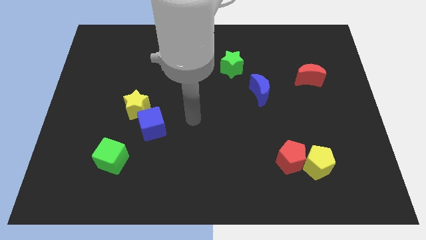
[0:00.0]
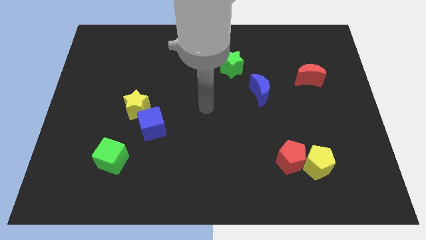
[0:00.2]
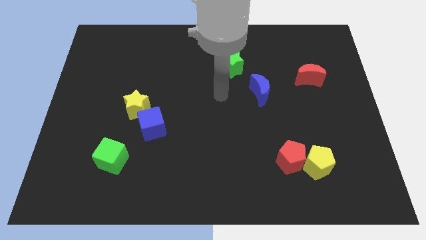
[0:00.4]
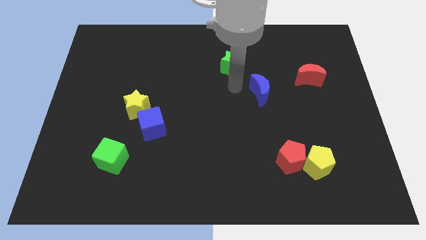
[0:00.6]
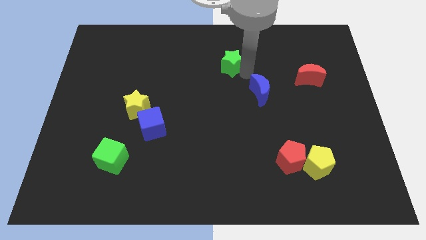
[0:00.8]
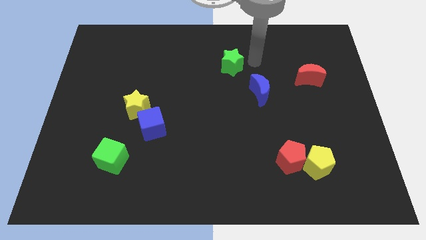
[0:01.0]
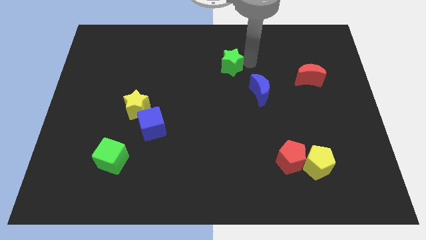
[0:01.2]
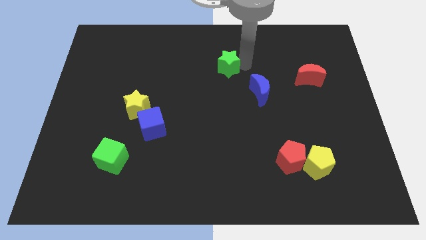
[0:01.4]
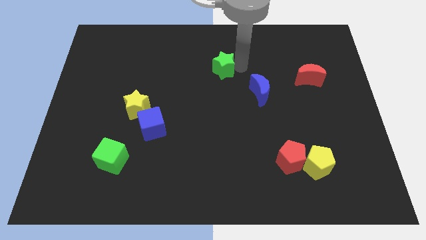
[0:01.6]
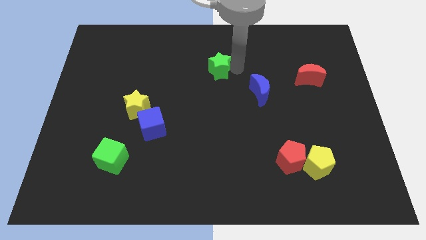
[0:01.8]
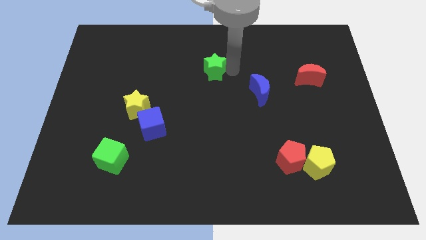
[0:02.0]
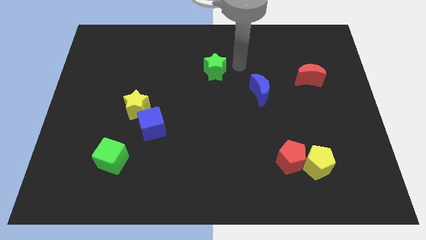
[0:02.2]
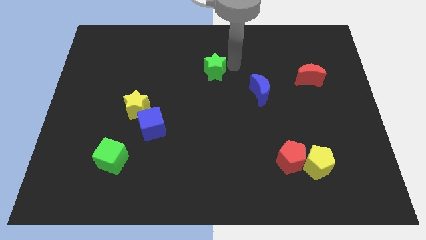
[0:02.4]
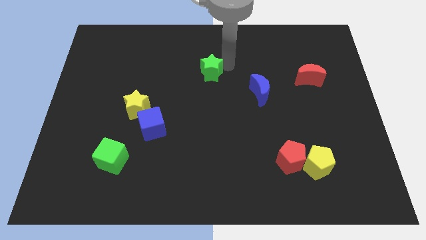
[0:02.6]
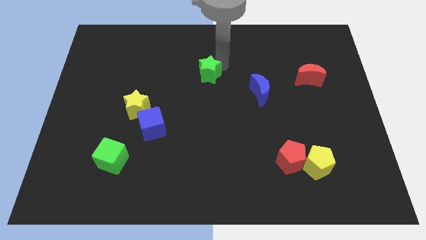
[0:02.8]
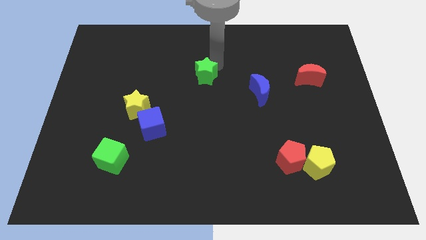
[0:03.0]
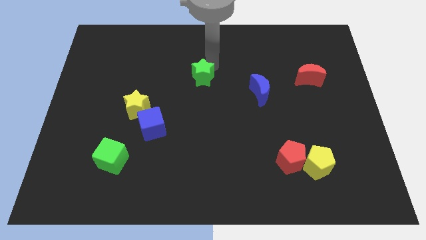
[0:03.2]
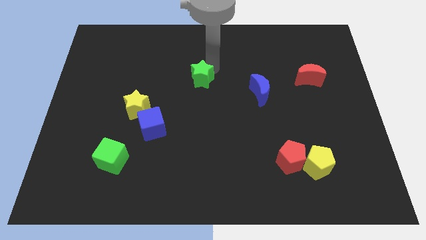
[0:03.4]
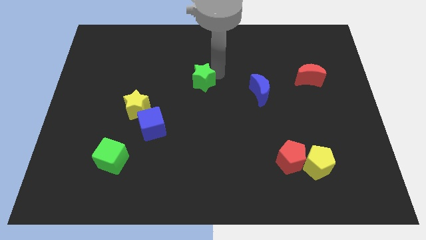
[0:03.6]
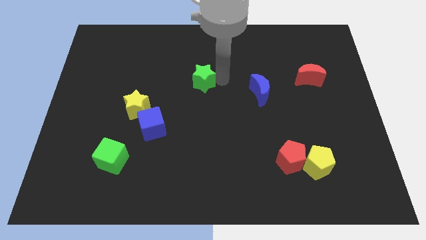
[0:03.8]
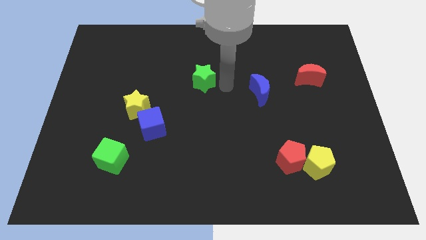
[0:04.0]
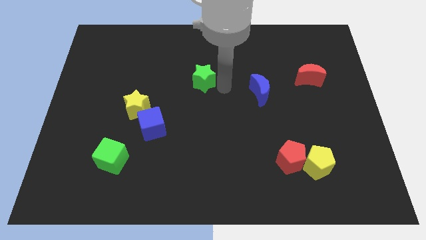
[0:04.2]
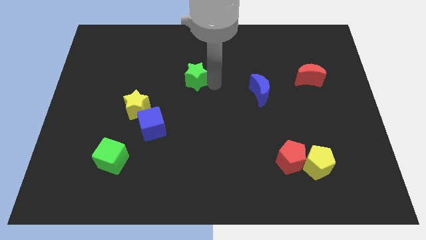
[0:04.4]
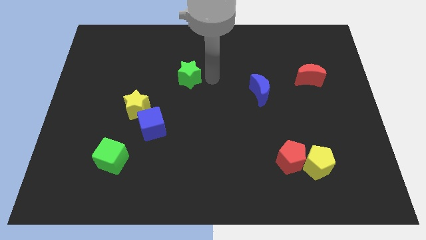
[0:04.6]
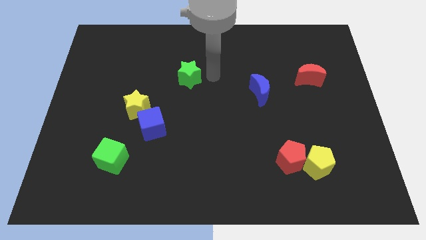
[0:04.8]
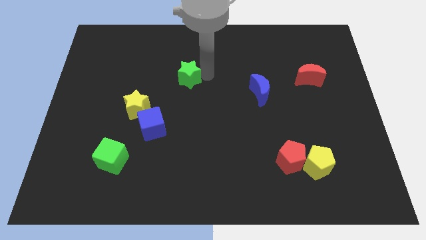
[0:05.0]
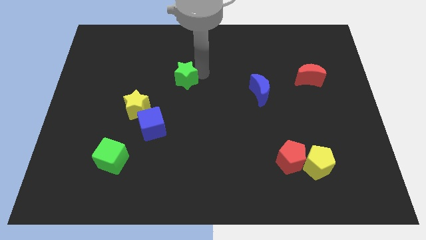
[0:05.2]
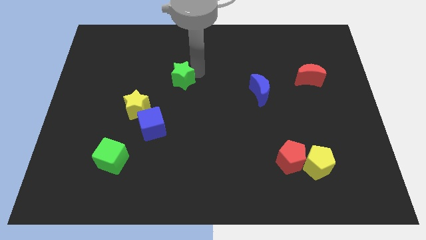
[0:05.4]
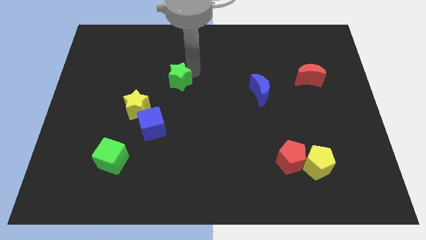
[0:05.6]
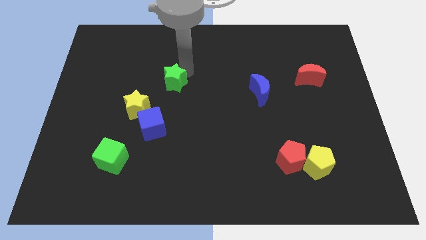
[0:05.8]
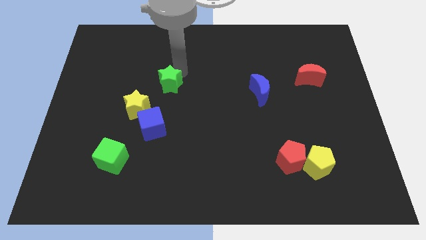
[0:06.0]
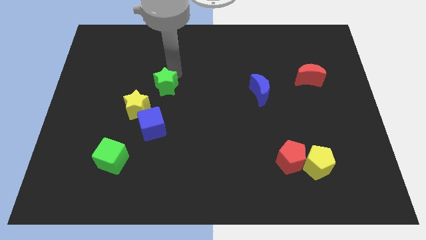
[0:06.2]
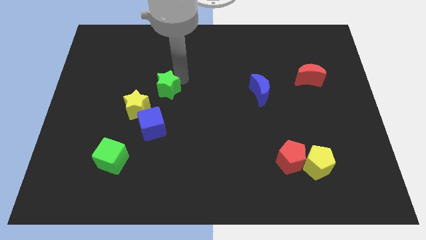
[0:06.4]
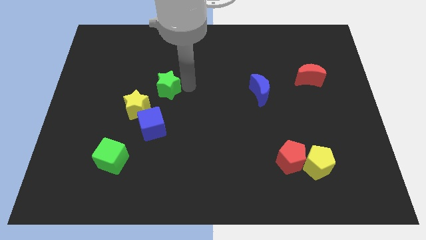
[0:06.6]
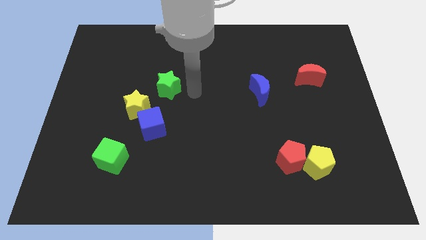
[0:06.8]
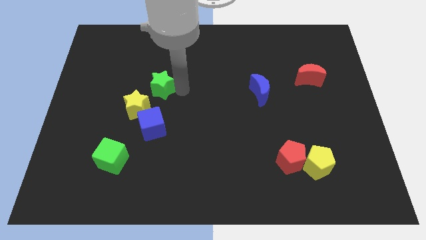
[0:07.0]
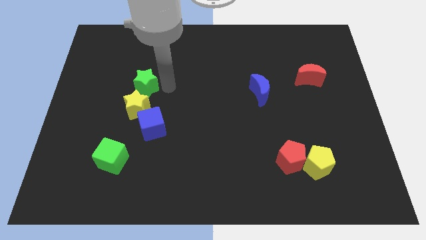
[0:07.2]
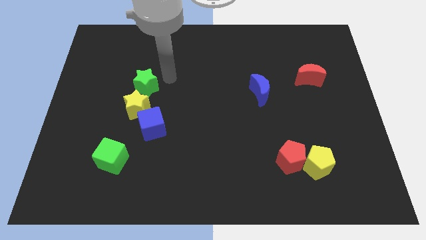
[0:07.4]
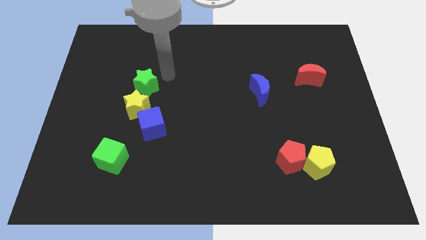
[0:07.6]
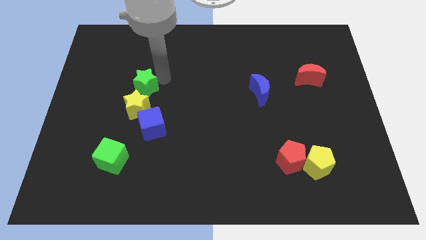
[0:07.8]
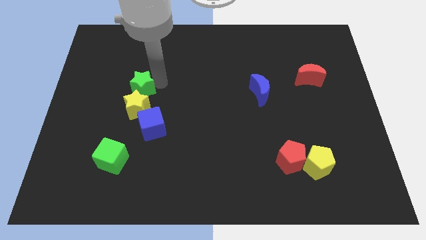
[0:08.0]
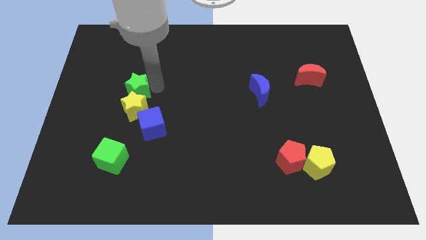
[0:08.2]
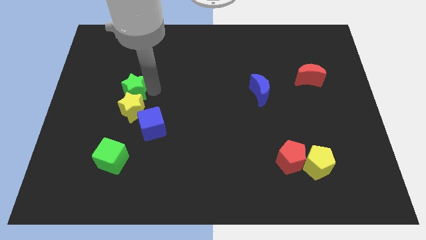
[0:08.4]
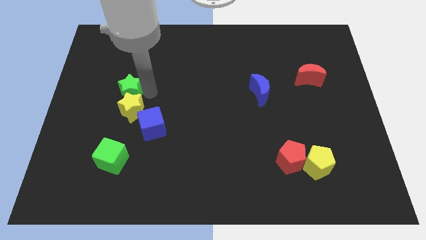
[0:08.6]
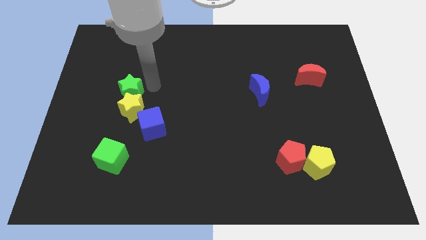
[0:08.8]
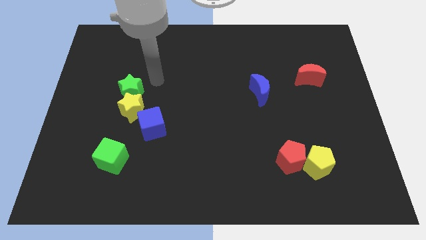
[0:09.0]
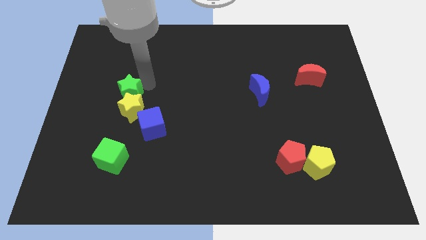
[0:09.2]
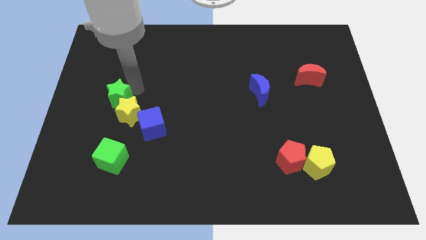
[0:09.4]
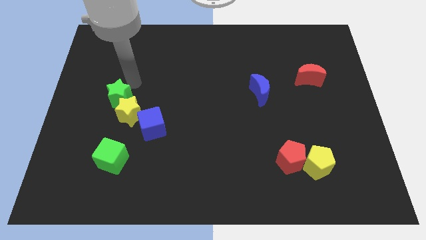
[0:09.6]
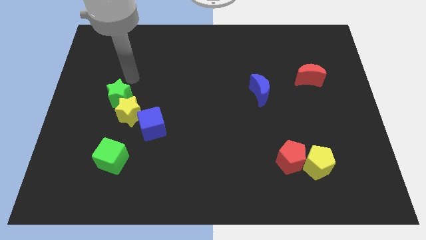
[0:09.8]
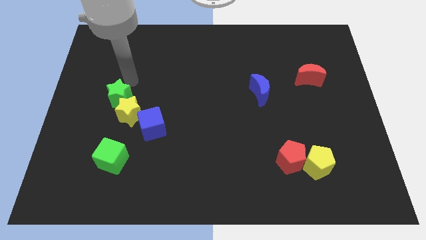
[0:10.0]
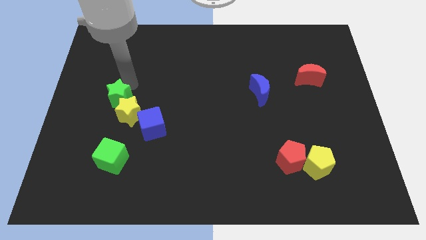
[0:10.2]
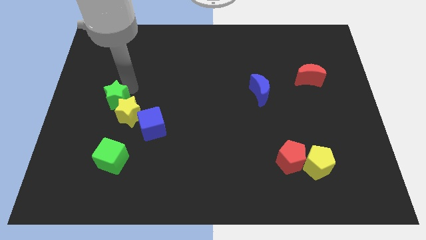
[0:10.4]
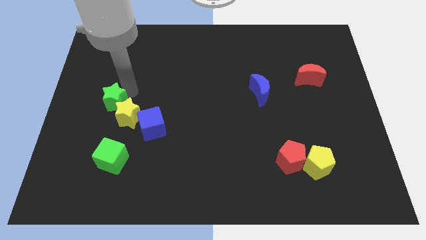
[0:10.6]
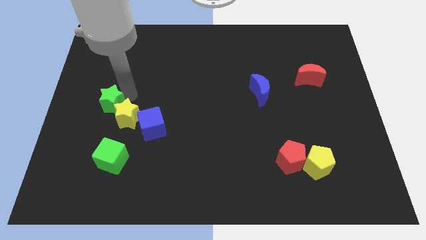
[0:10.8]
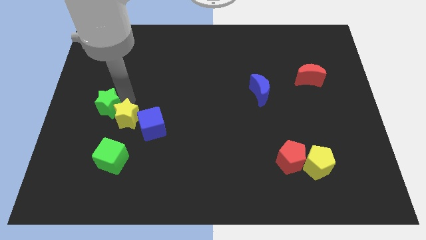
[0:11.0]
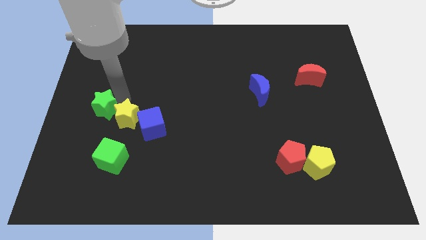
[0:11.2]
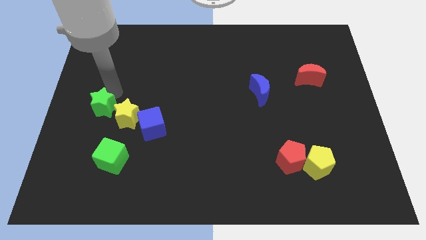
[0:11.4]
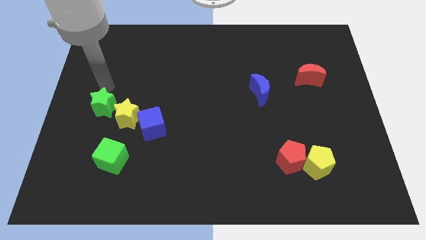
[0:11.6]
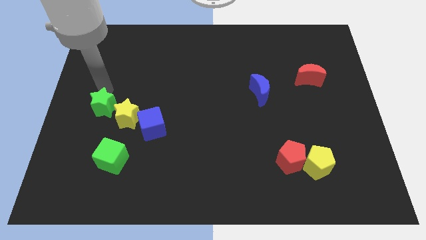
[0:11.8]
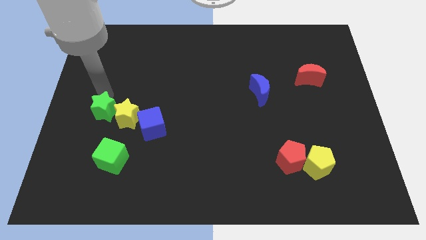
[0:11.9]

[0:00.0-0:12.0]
put the green star left of the blue cube

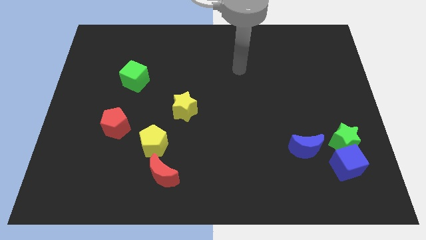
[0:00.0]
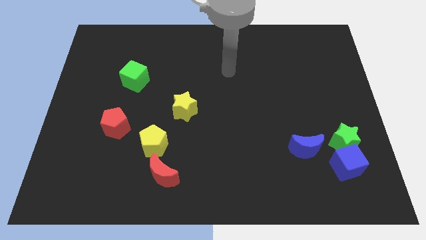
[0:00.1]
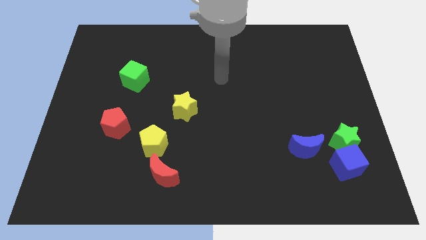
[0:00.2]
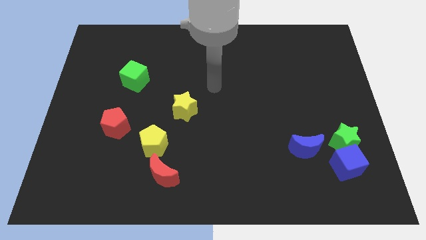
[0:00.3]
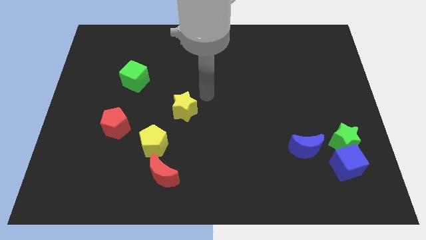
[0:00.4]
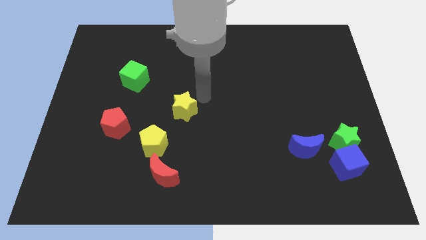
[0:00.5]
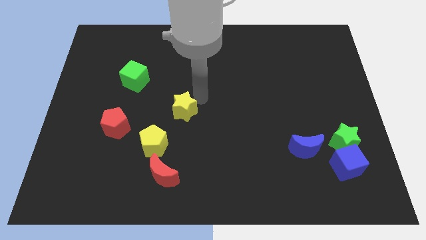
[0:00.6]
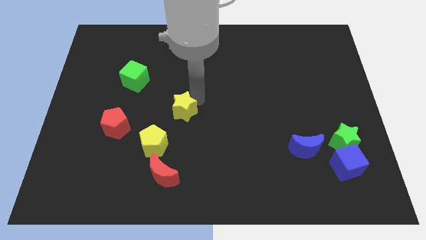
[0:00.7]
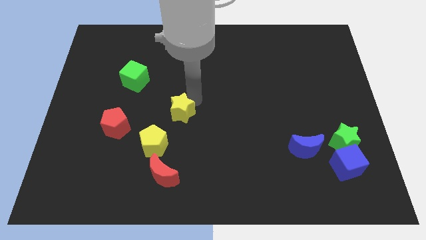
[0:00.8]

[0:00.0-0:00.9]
push the yellow star to the right side of the red pentagon
